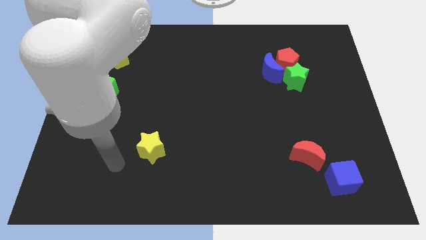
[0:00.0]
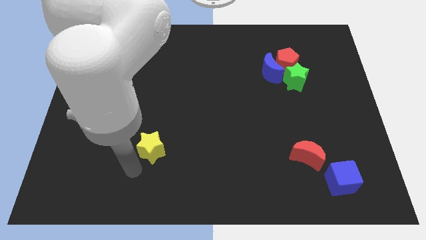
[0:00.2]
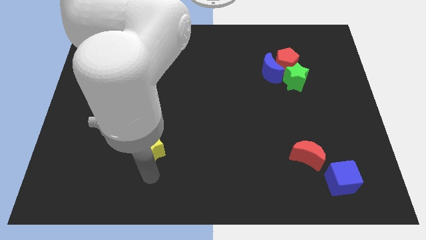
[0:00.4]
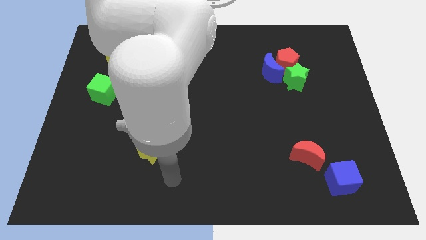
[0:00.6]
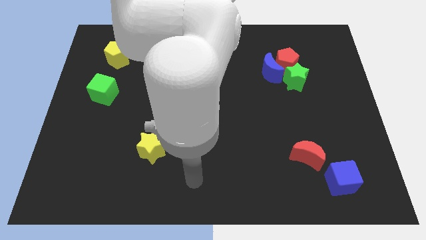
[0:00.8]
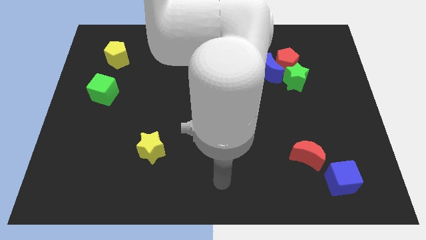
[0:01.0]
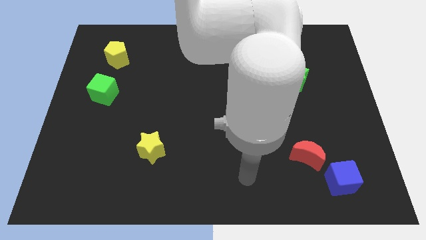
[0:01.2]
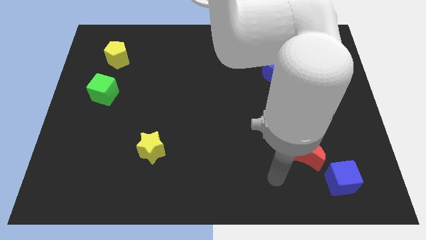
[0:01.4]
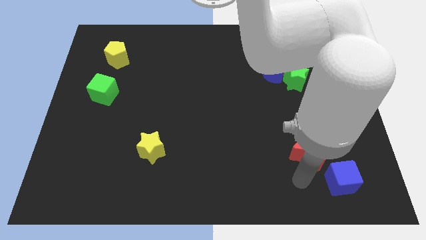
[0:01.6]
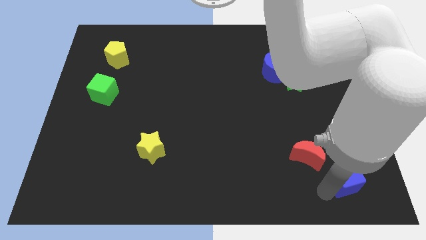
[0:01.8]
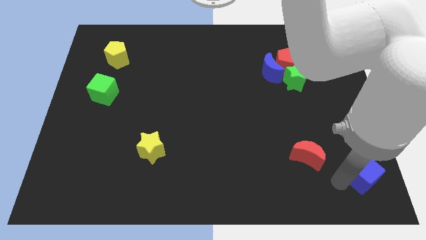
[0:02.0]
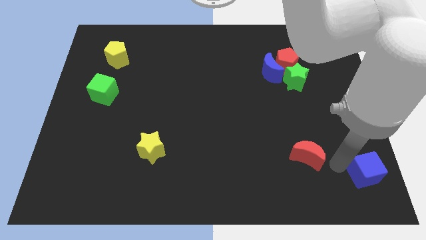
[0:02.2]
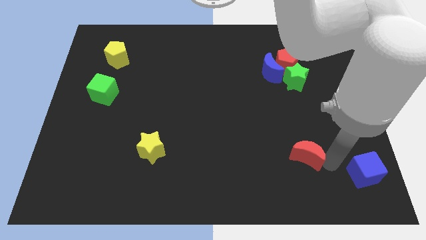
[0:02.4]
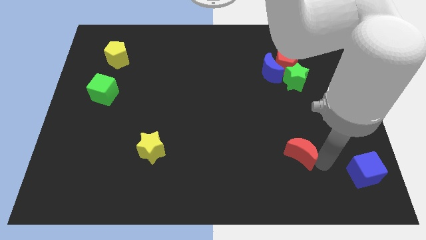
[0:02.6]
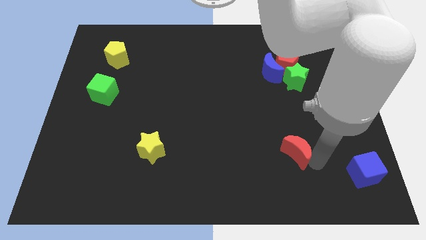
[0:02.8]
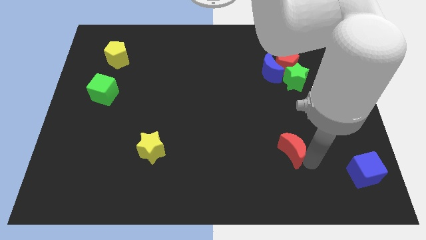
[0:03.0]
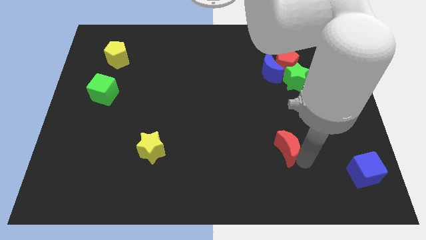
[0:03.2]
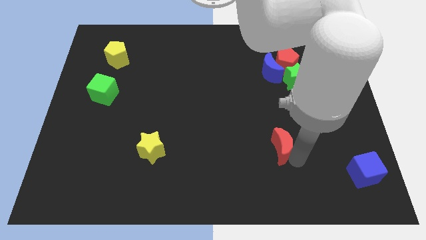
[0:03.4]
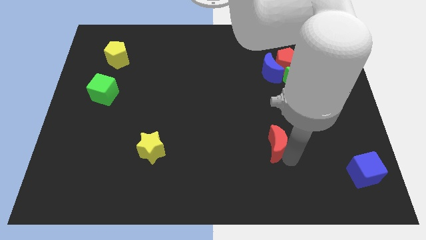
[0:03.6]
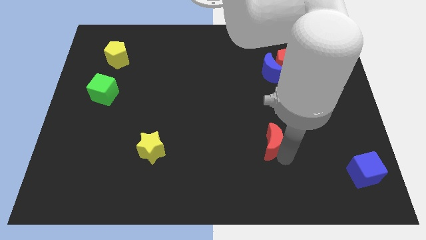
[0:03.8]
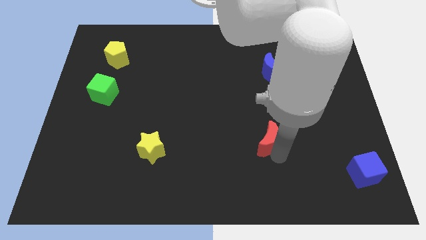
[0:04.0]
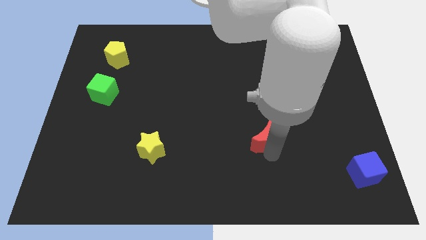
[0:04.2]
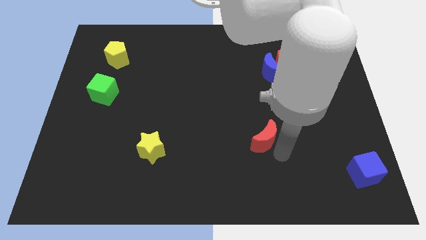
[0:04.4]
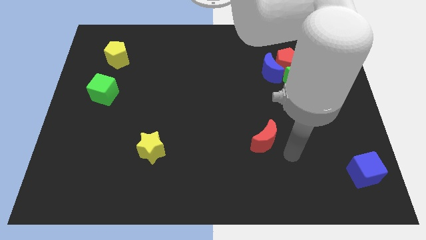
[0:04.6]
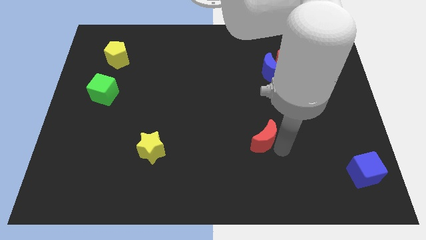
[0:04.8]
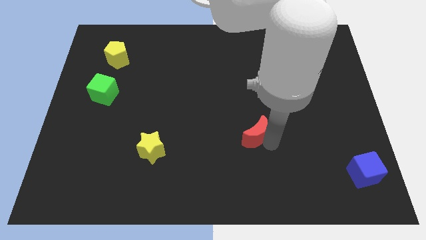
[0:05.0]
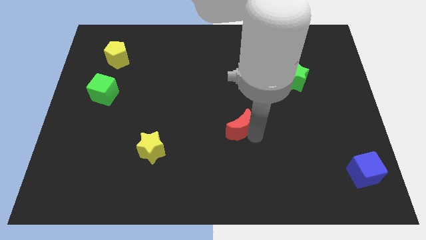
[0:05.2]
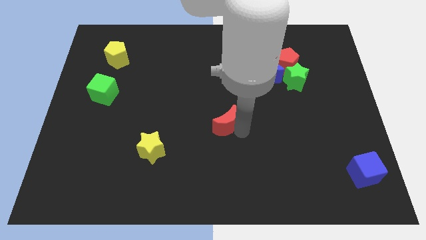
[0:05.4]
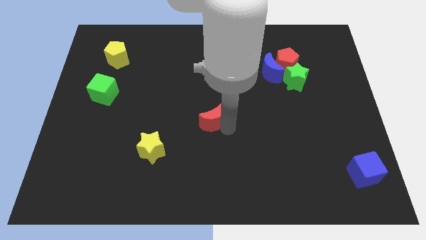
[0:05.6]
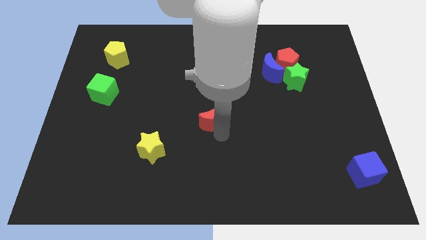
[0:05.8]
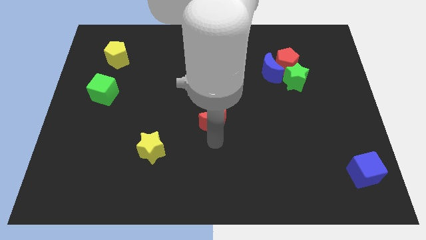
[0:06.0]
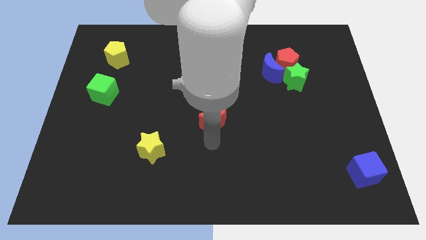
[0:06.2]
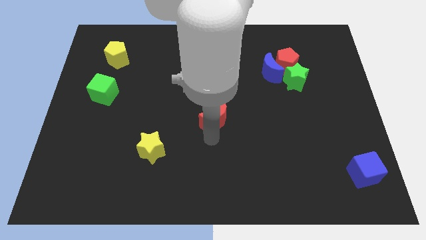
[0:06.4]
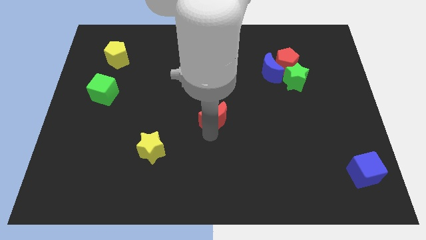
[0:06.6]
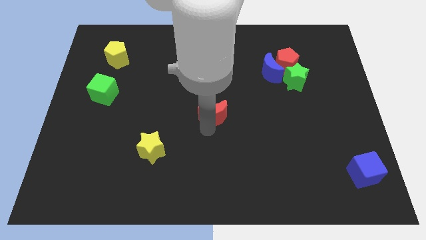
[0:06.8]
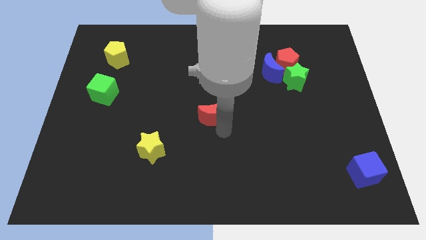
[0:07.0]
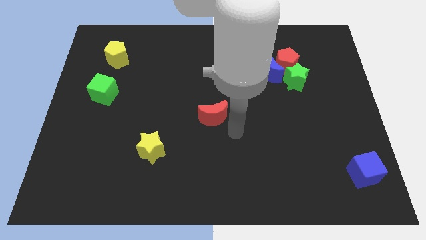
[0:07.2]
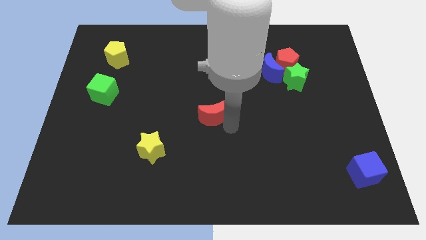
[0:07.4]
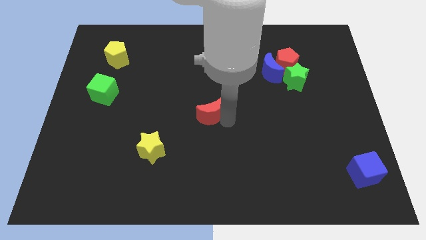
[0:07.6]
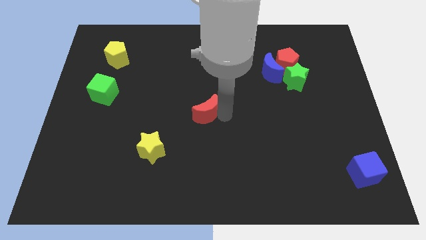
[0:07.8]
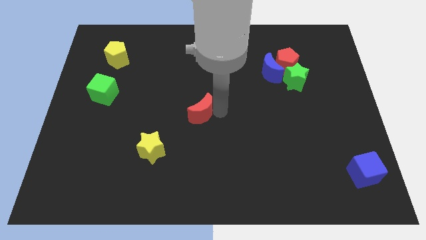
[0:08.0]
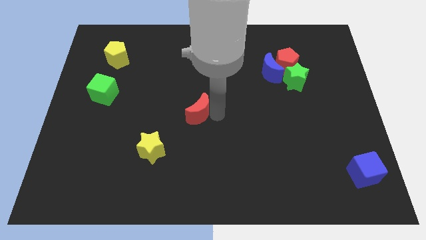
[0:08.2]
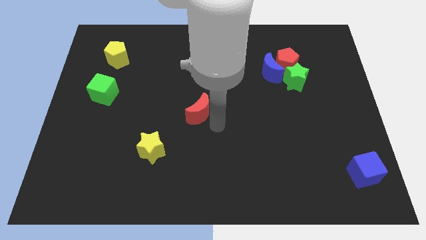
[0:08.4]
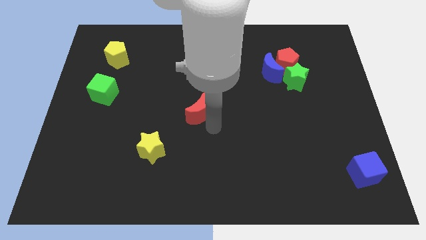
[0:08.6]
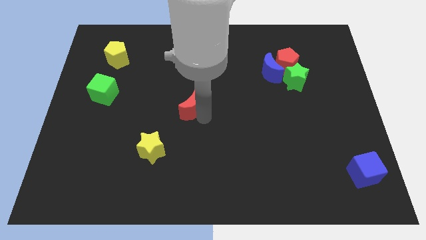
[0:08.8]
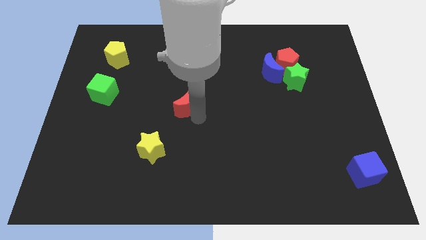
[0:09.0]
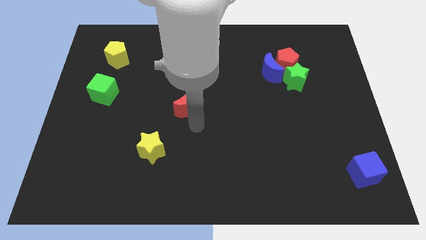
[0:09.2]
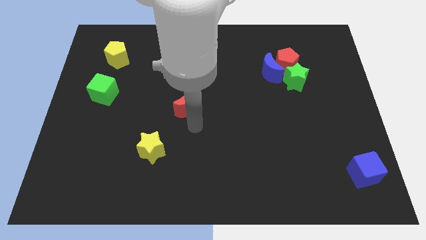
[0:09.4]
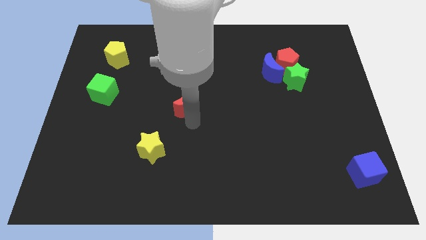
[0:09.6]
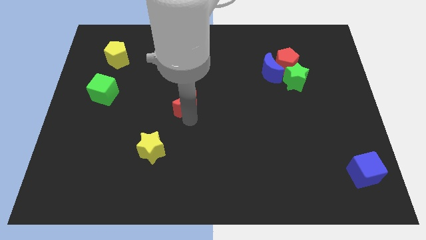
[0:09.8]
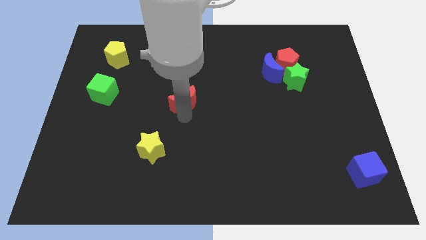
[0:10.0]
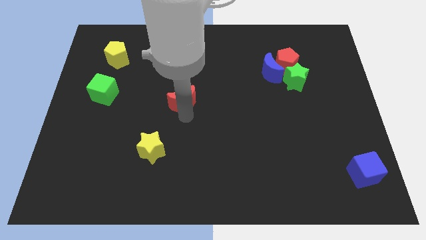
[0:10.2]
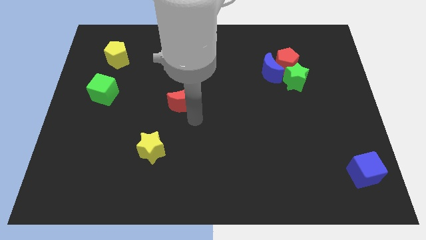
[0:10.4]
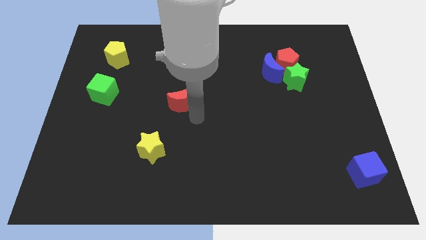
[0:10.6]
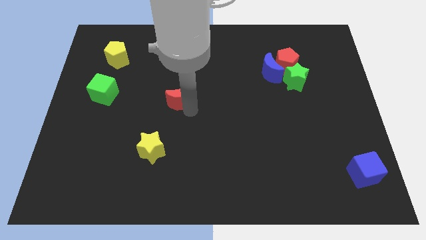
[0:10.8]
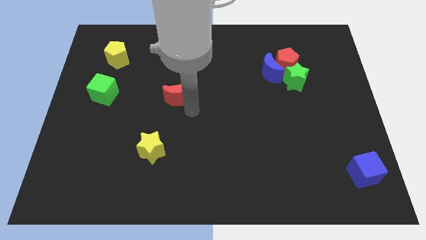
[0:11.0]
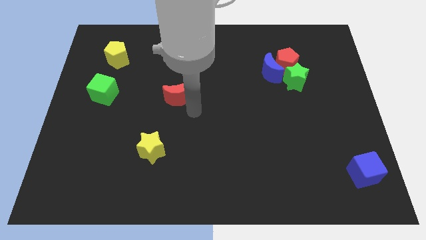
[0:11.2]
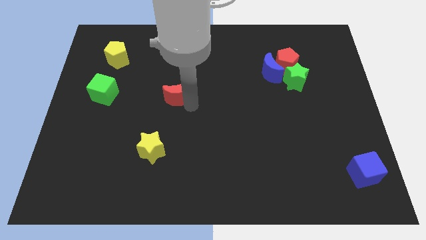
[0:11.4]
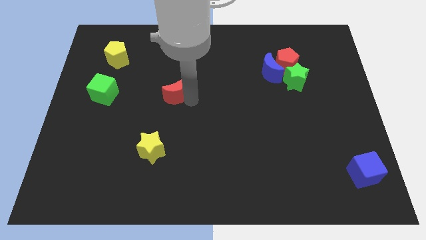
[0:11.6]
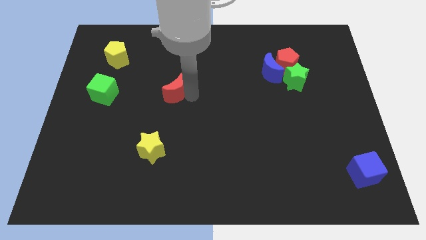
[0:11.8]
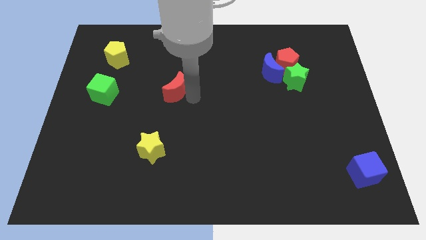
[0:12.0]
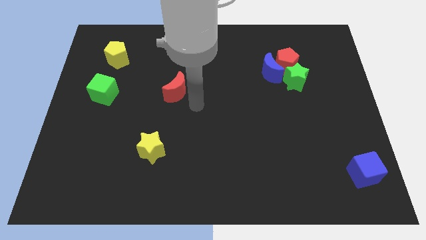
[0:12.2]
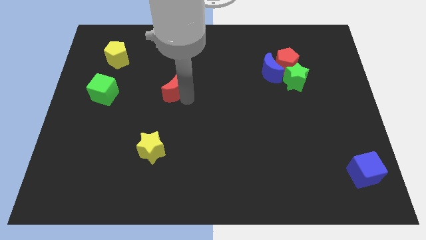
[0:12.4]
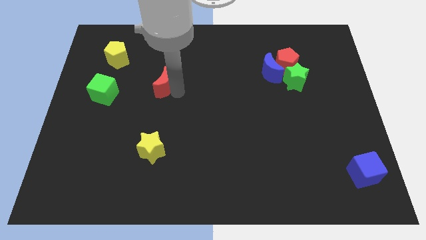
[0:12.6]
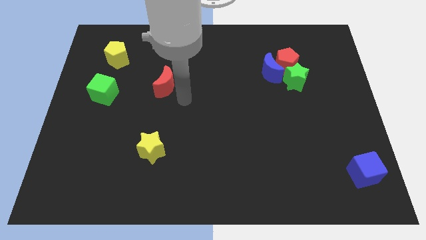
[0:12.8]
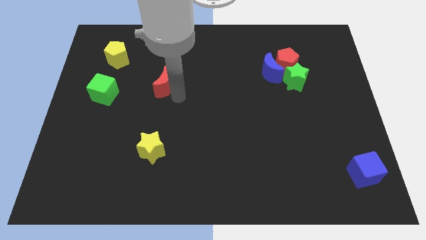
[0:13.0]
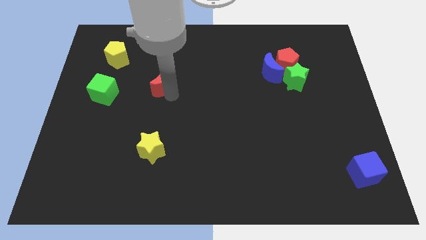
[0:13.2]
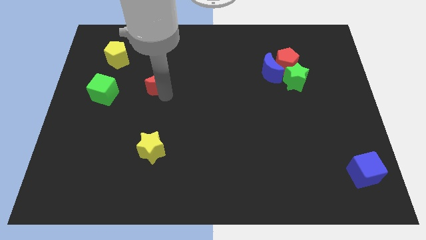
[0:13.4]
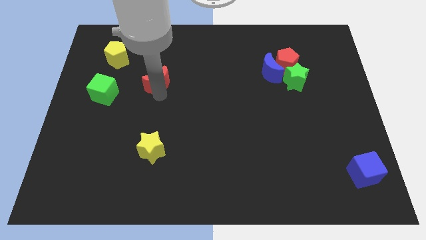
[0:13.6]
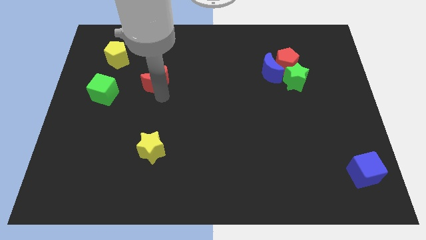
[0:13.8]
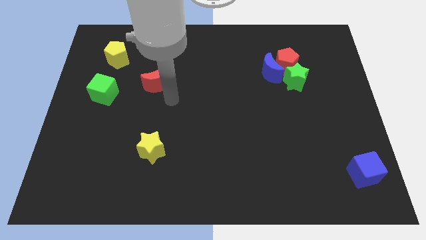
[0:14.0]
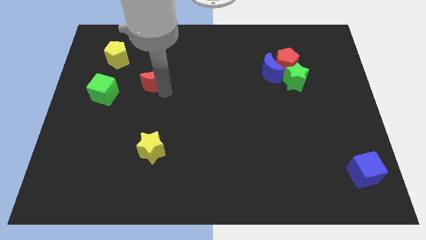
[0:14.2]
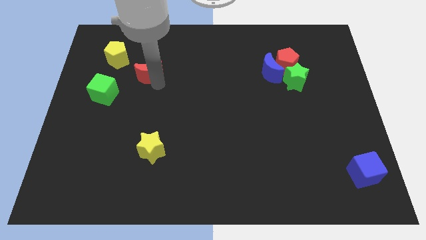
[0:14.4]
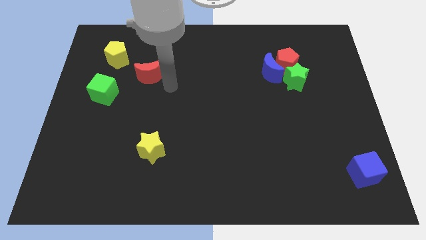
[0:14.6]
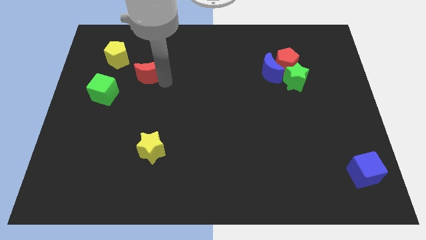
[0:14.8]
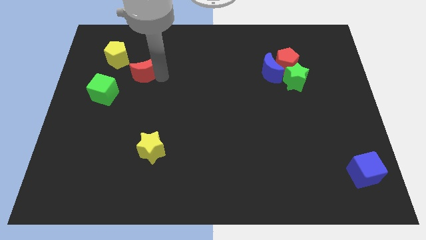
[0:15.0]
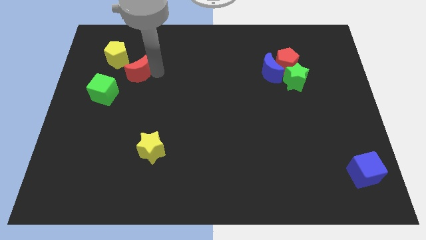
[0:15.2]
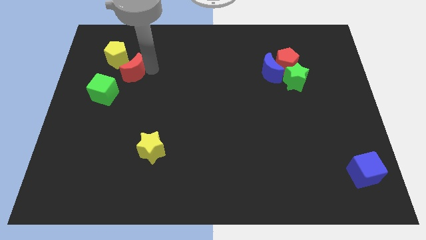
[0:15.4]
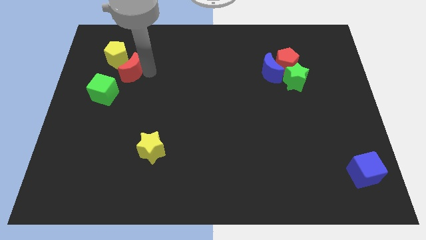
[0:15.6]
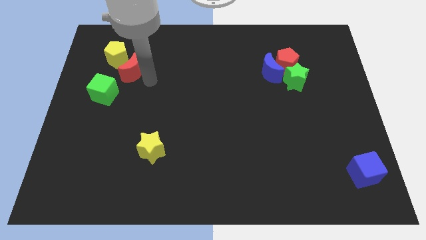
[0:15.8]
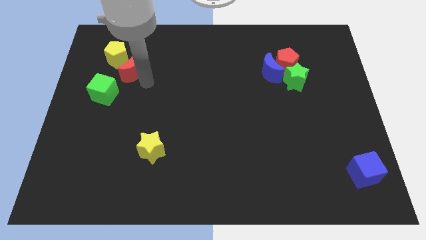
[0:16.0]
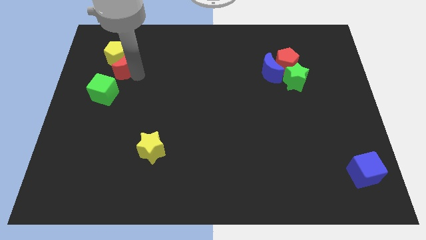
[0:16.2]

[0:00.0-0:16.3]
put the red moon next to the yellow pentagon
